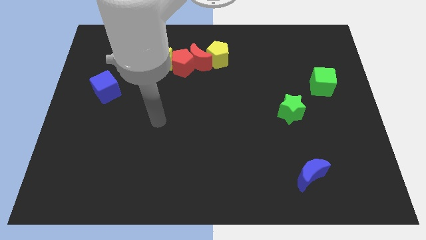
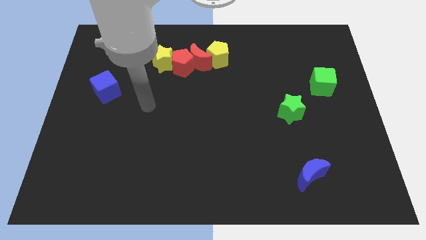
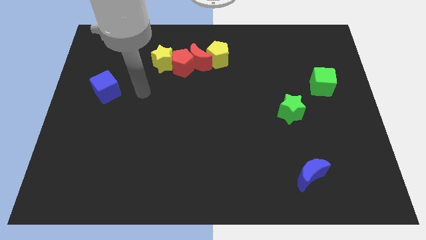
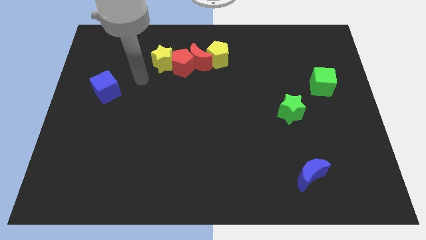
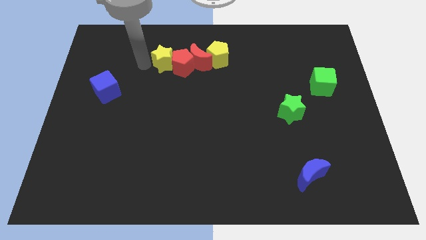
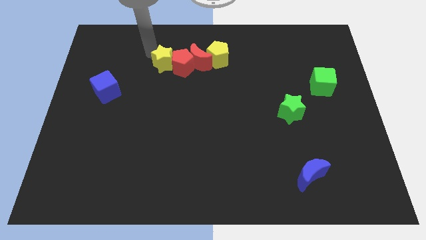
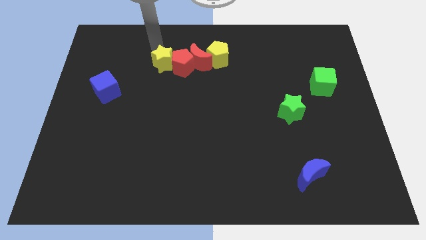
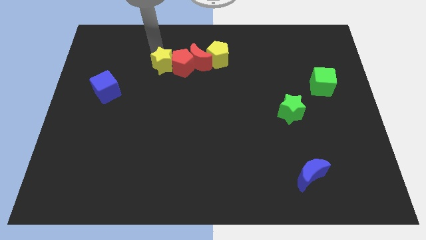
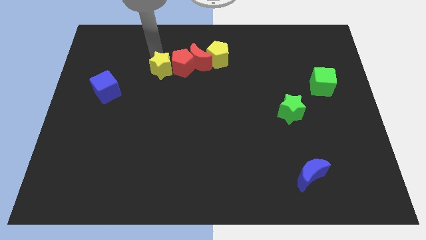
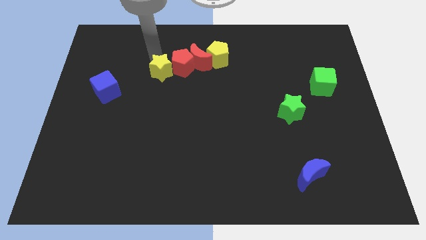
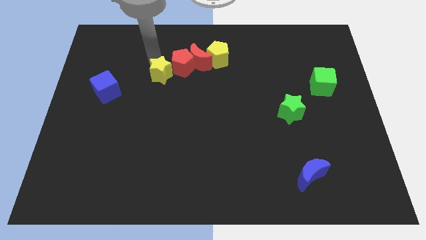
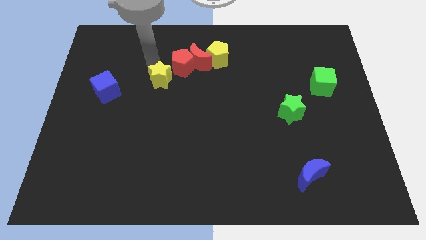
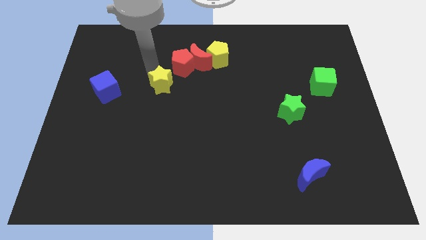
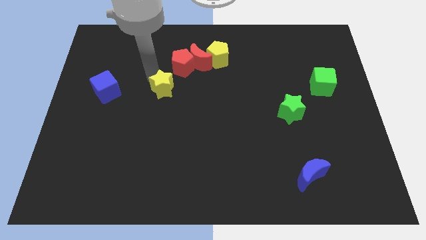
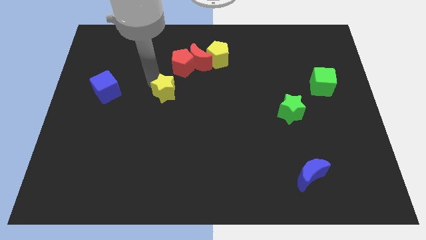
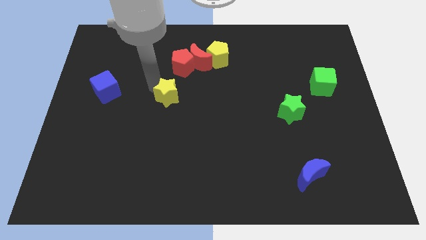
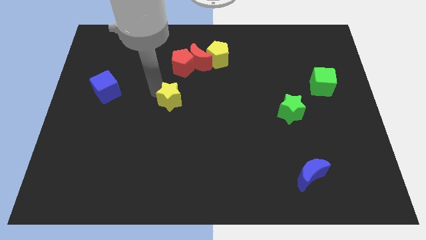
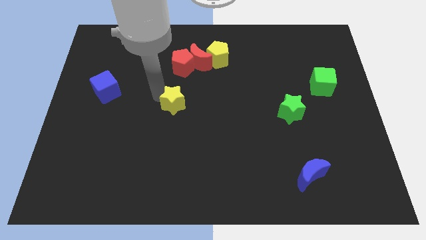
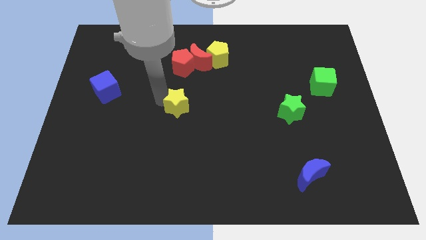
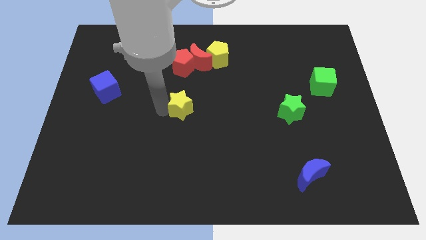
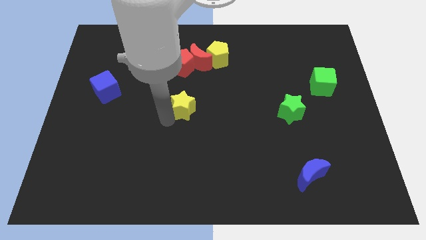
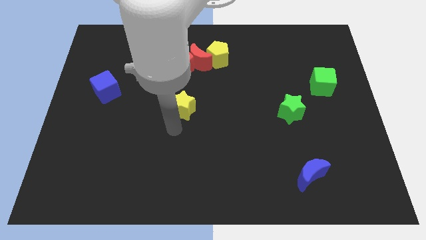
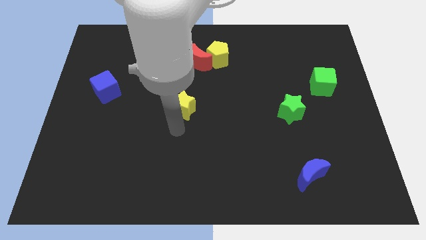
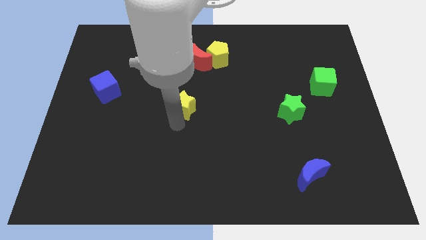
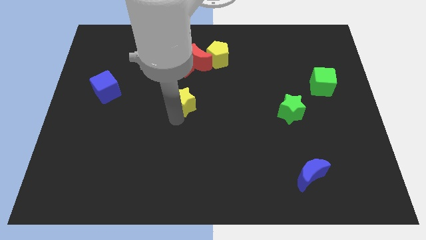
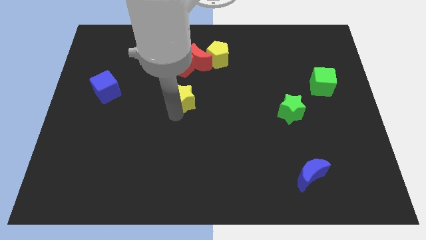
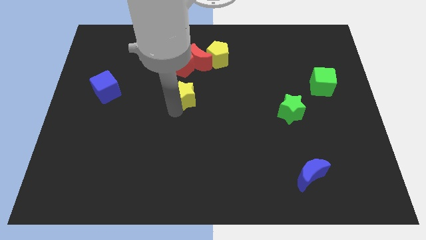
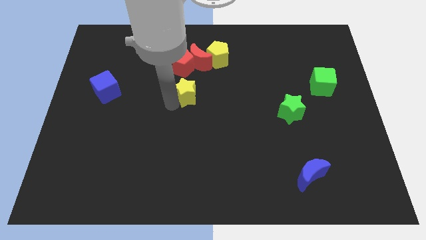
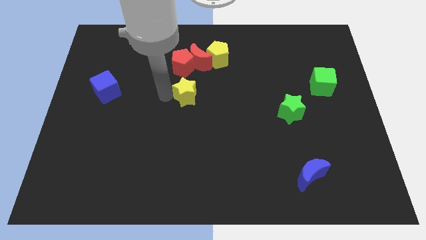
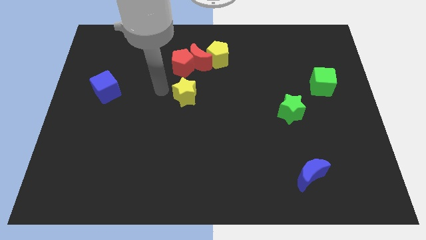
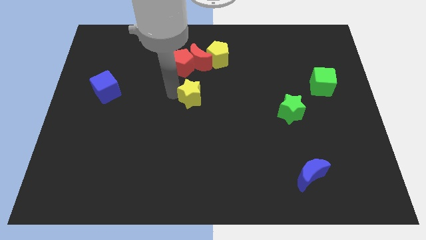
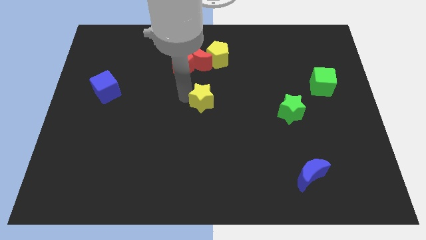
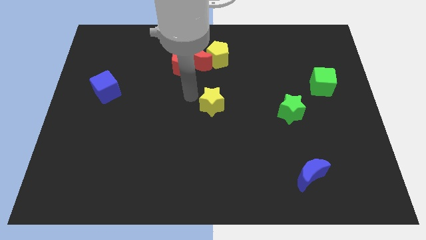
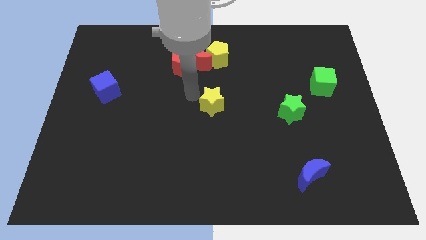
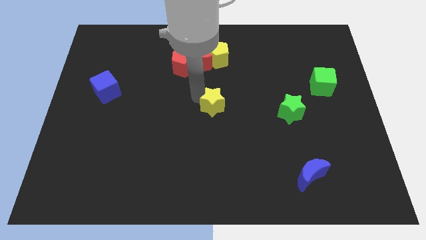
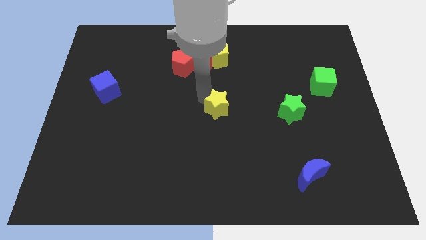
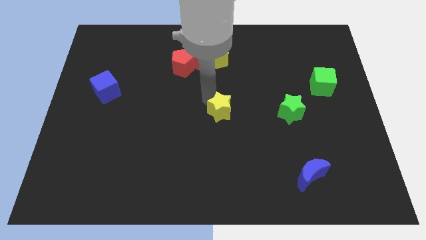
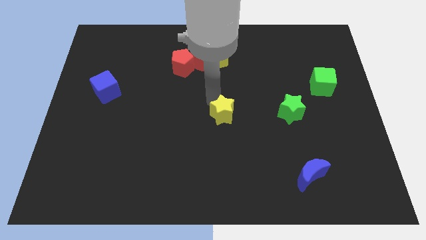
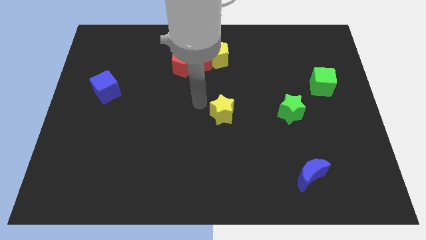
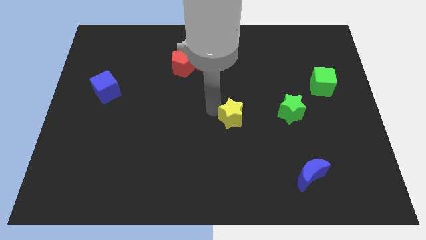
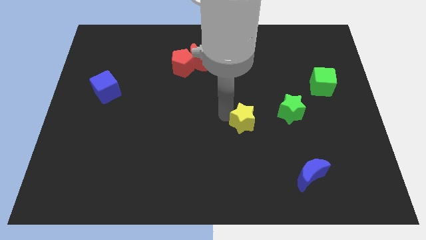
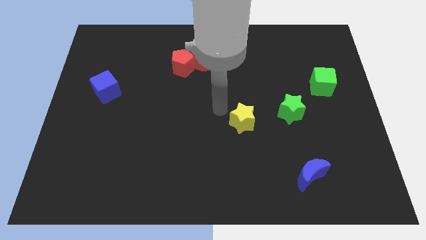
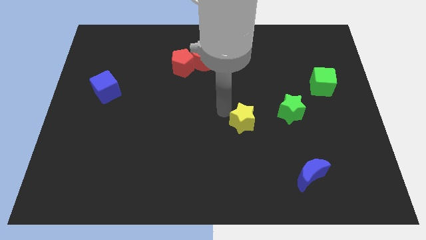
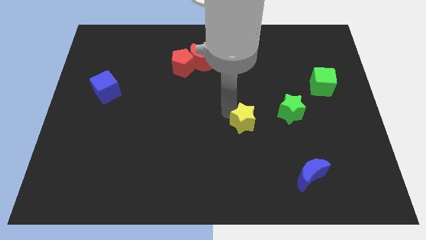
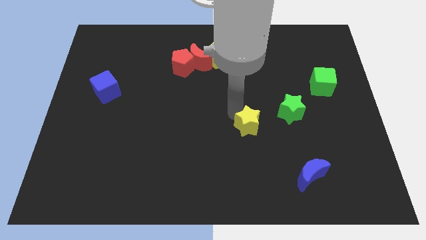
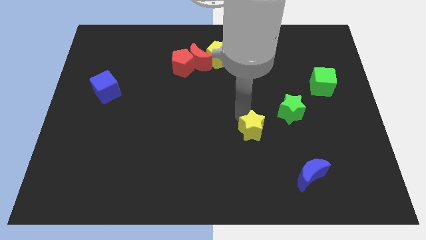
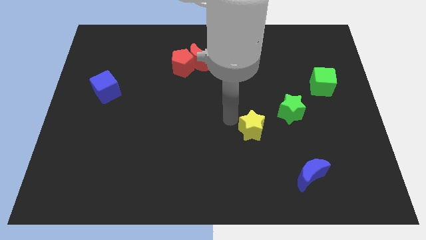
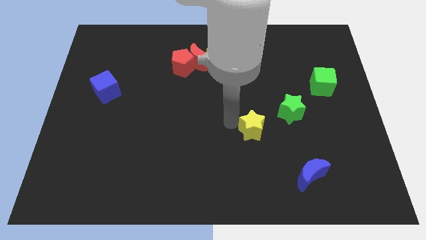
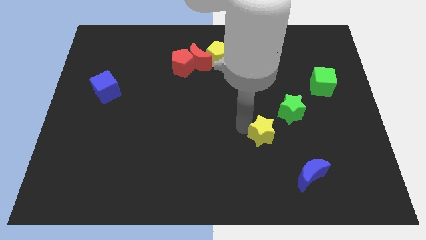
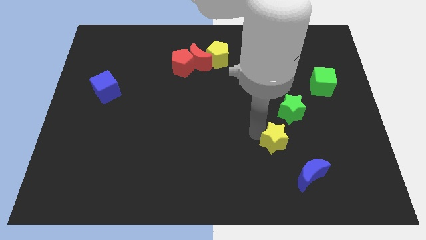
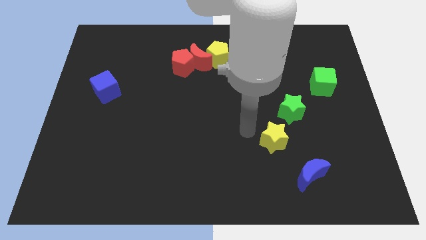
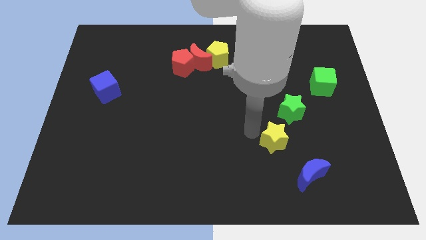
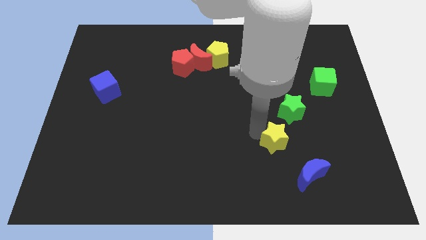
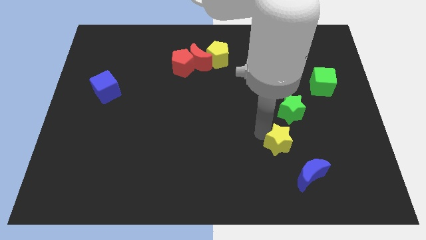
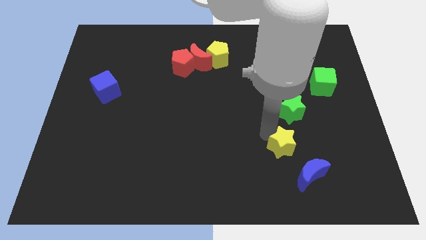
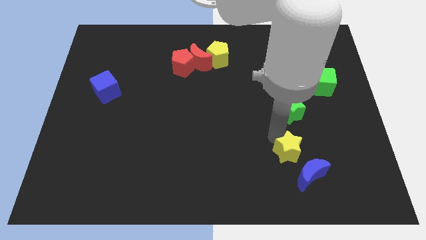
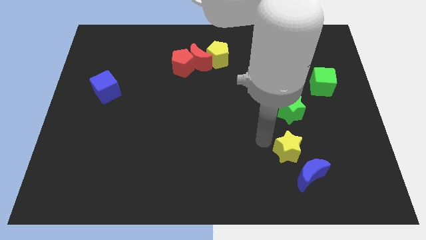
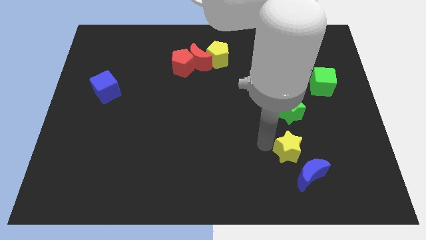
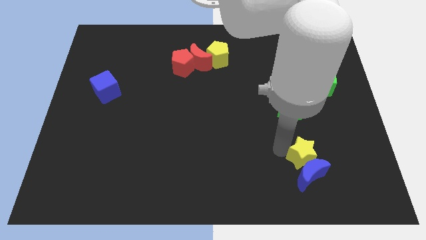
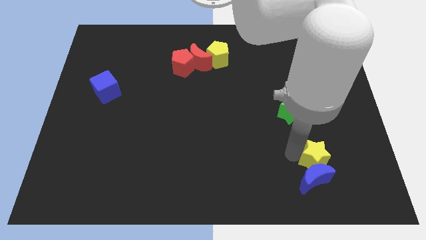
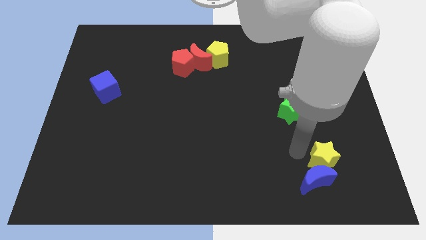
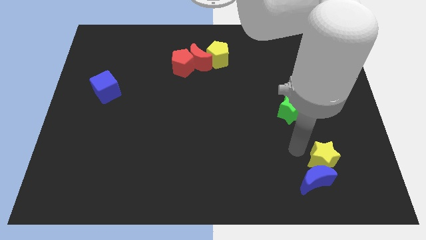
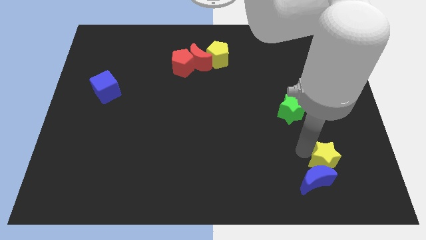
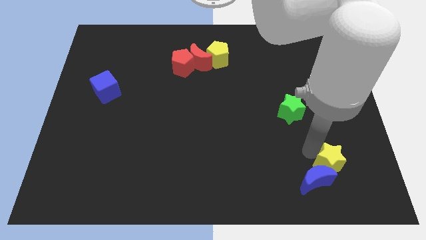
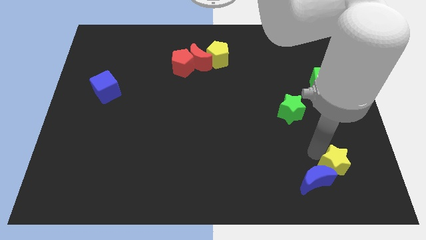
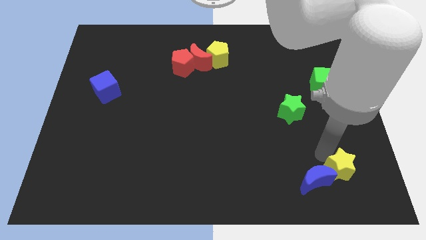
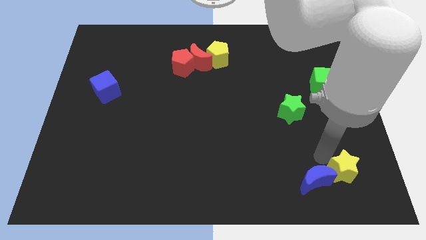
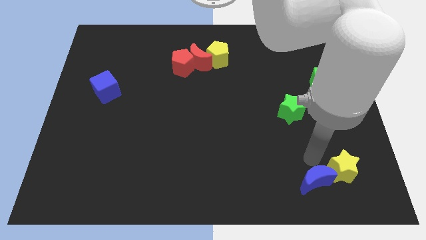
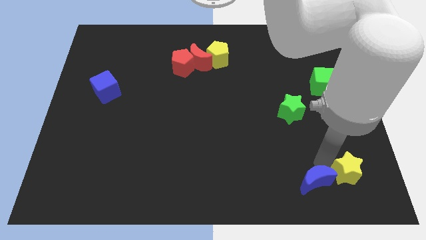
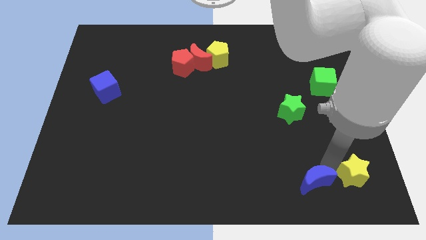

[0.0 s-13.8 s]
move the yellow star to the bottom right
